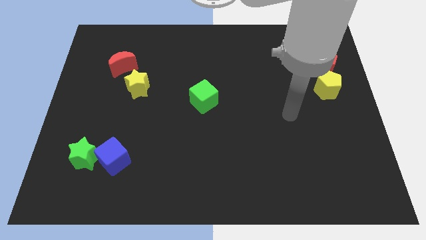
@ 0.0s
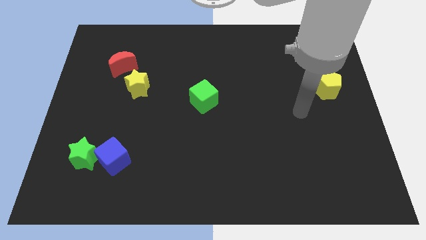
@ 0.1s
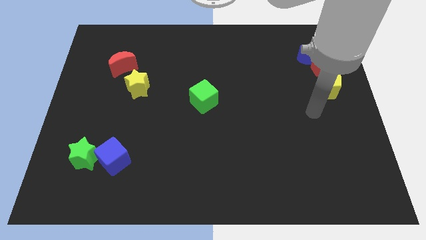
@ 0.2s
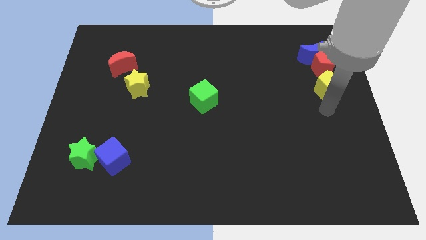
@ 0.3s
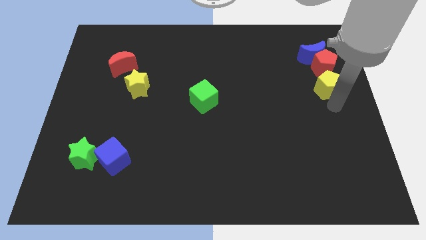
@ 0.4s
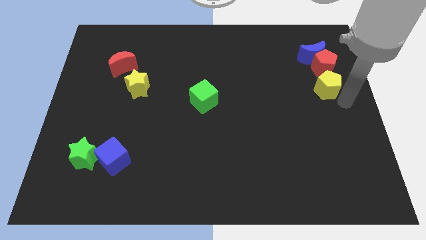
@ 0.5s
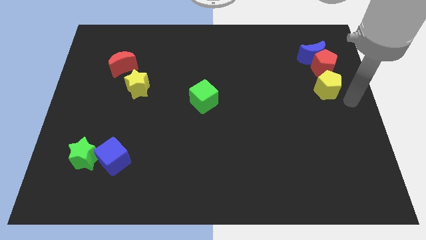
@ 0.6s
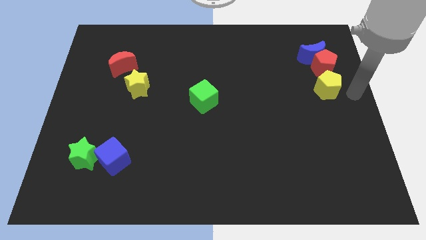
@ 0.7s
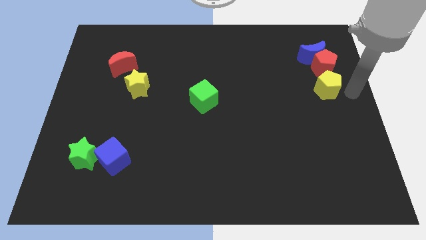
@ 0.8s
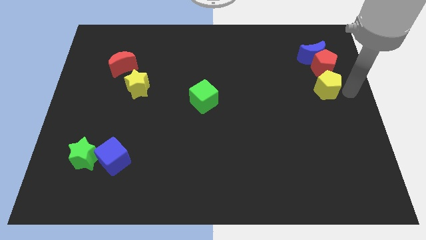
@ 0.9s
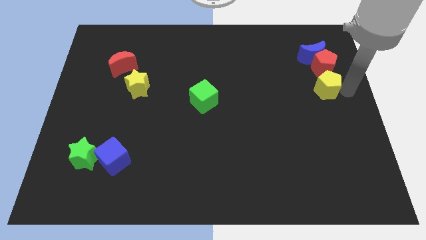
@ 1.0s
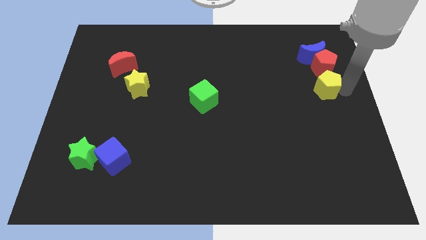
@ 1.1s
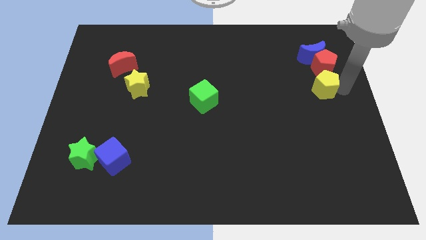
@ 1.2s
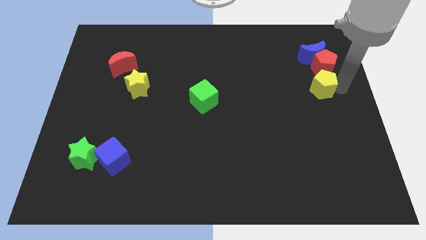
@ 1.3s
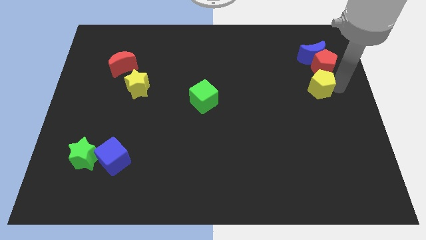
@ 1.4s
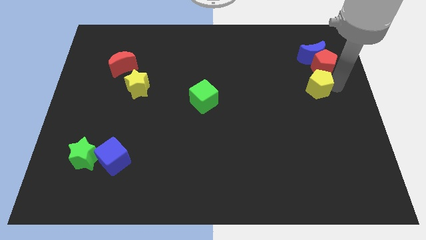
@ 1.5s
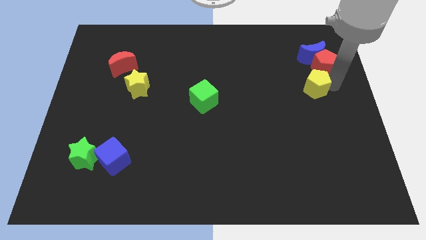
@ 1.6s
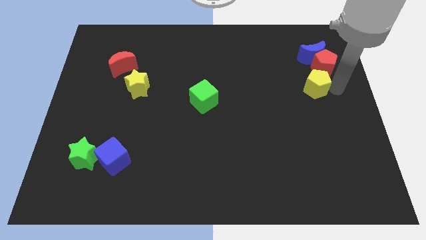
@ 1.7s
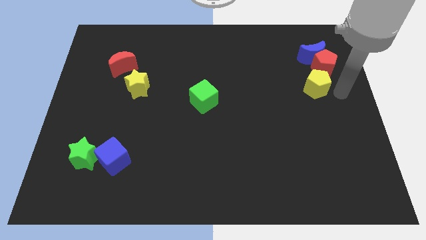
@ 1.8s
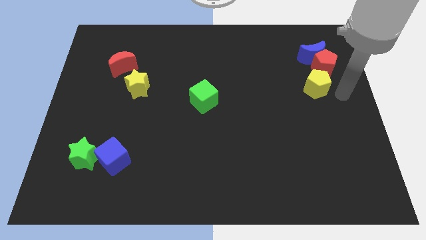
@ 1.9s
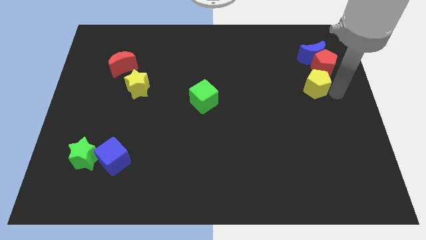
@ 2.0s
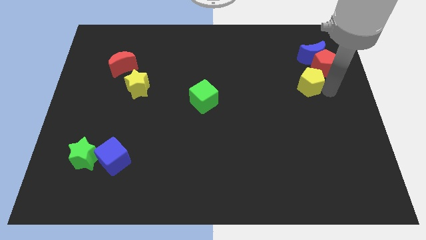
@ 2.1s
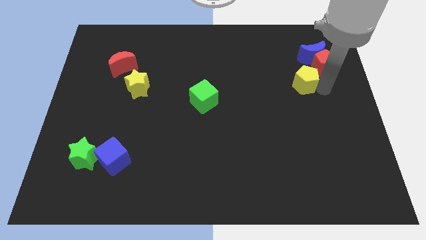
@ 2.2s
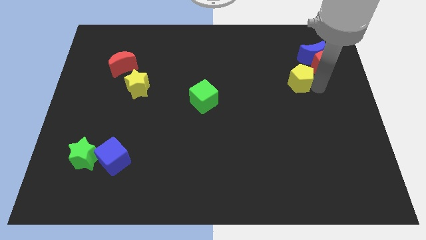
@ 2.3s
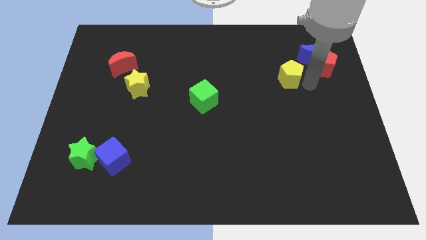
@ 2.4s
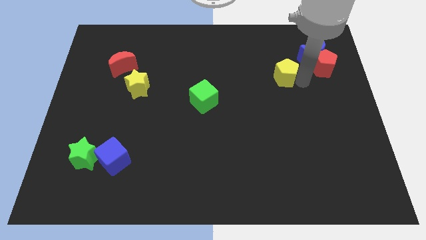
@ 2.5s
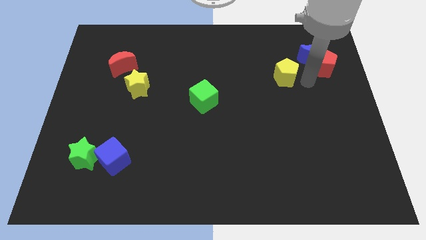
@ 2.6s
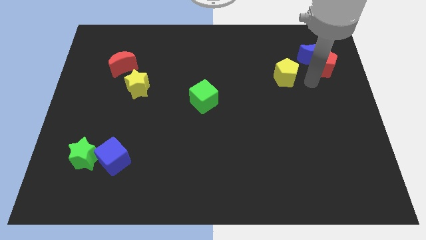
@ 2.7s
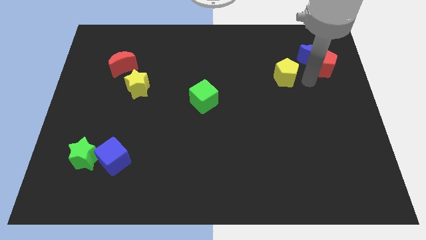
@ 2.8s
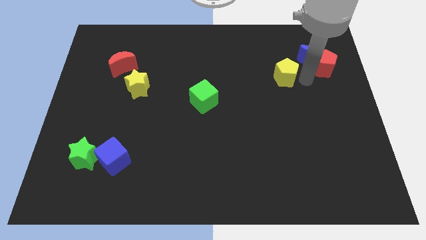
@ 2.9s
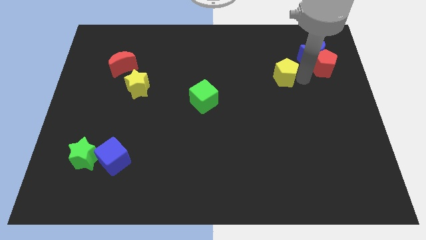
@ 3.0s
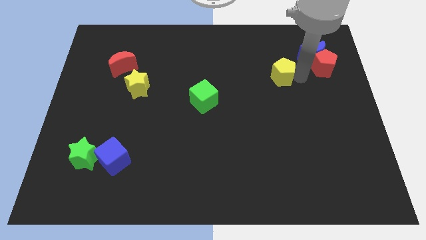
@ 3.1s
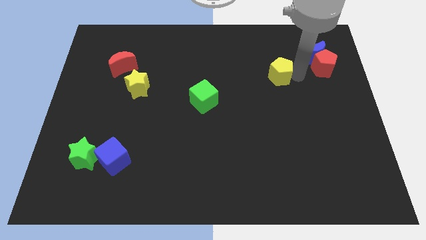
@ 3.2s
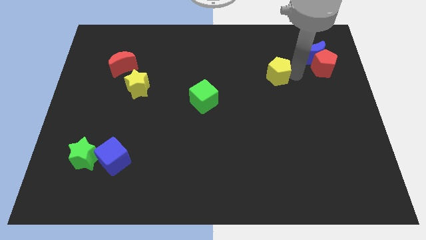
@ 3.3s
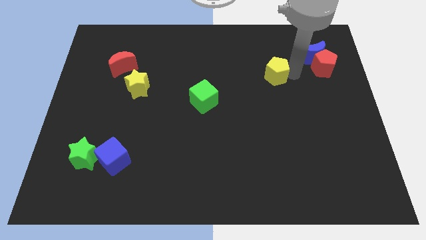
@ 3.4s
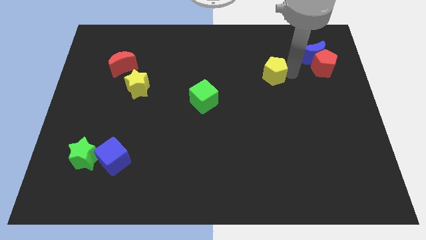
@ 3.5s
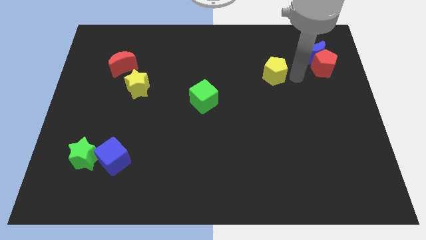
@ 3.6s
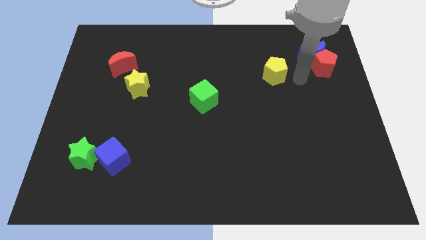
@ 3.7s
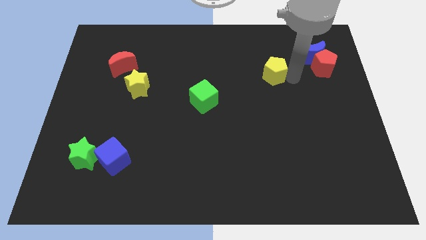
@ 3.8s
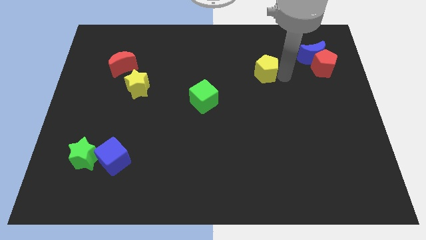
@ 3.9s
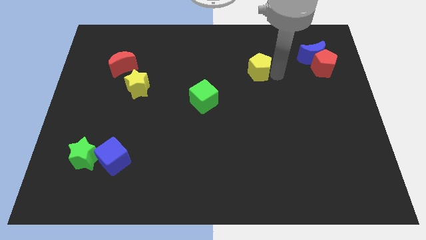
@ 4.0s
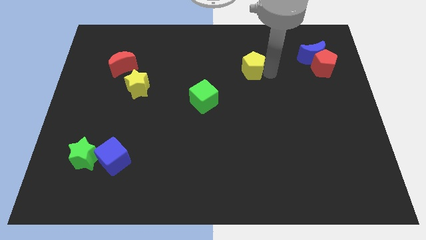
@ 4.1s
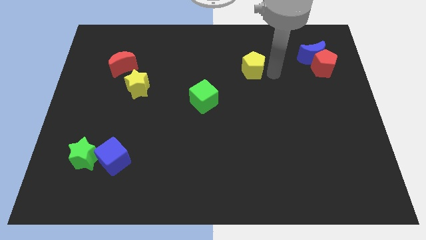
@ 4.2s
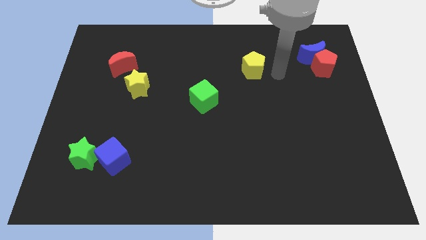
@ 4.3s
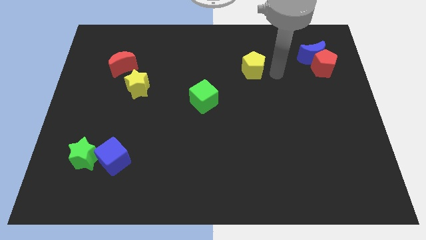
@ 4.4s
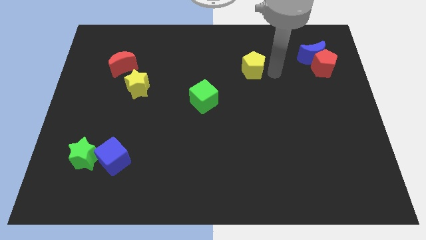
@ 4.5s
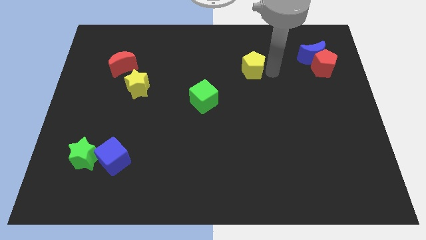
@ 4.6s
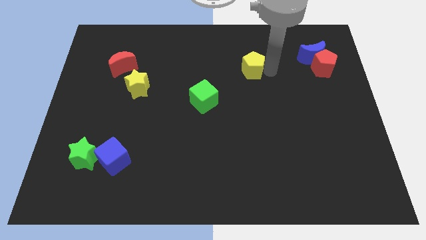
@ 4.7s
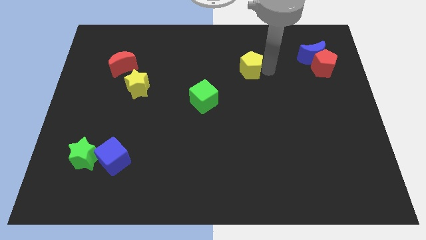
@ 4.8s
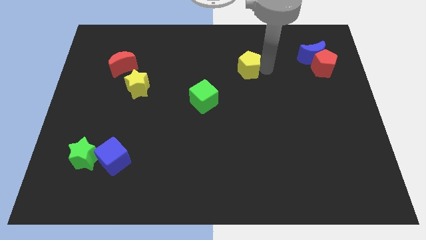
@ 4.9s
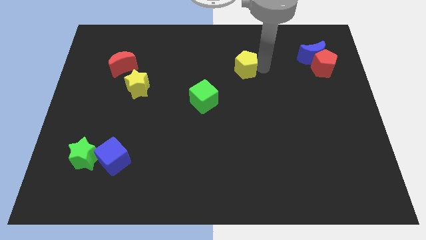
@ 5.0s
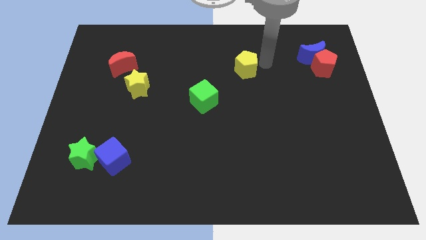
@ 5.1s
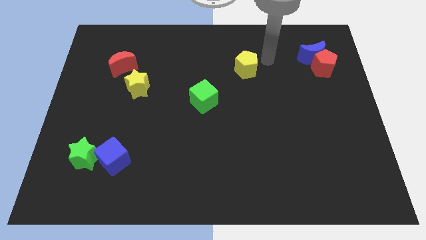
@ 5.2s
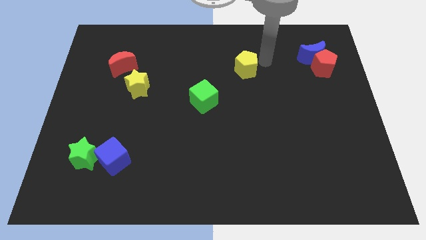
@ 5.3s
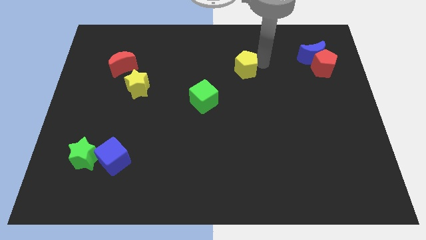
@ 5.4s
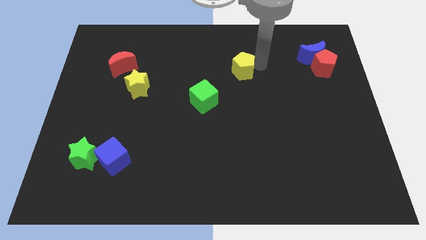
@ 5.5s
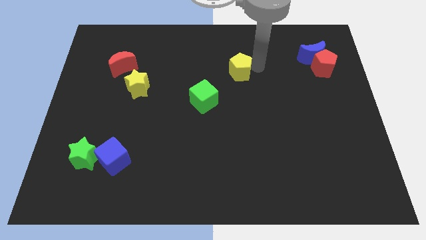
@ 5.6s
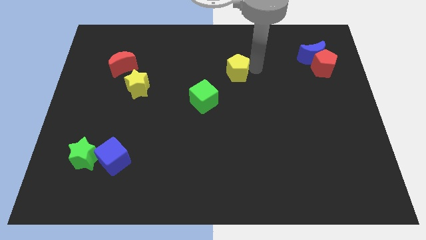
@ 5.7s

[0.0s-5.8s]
push the yellow pentagon to the left

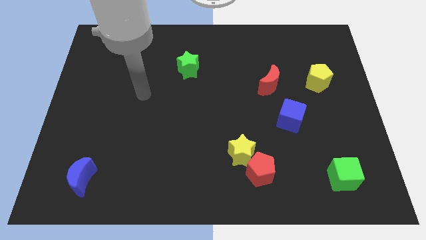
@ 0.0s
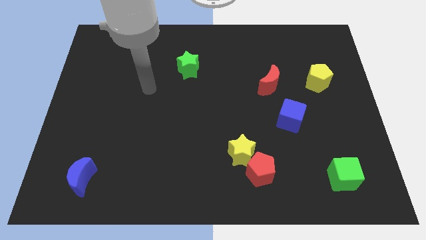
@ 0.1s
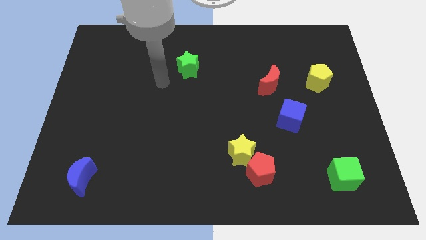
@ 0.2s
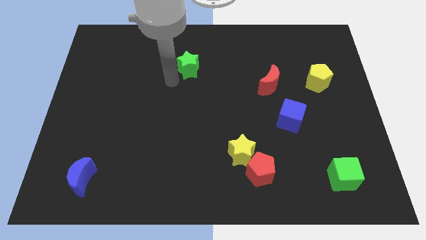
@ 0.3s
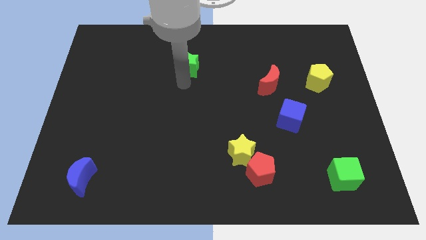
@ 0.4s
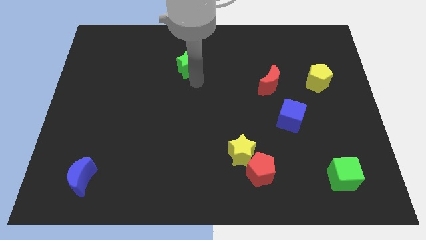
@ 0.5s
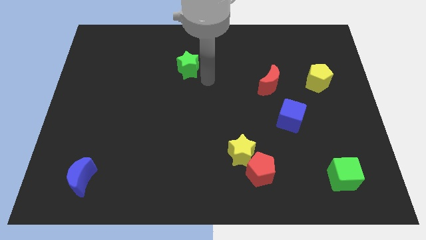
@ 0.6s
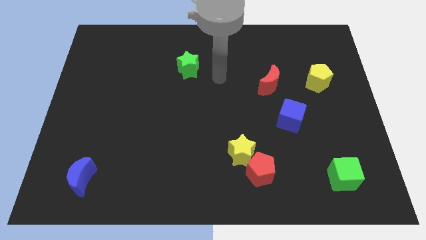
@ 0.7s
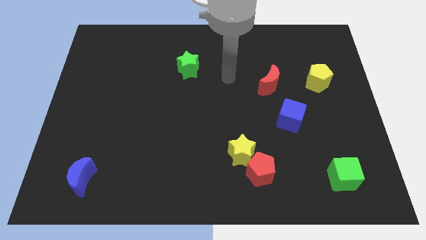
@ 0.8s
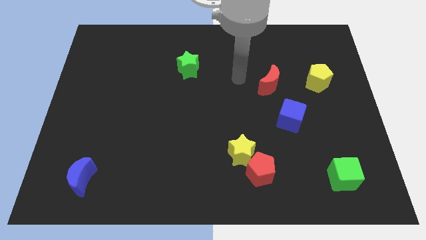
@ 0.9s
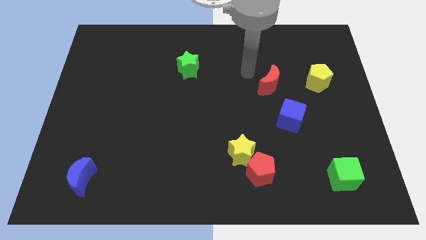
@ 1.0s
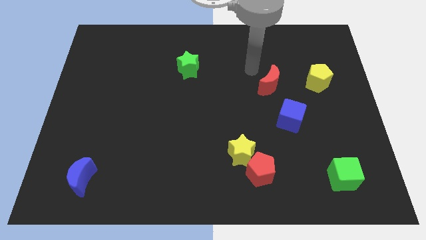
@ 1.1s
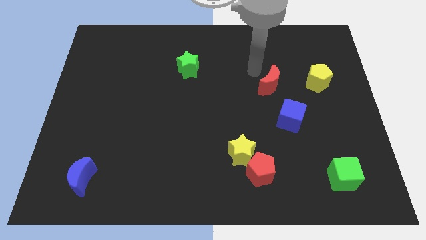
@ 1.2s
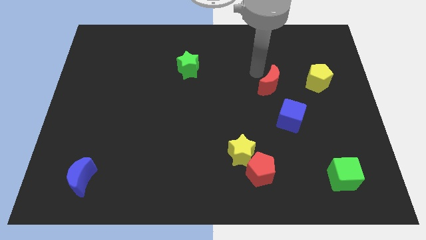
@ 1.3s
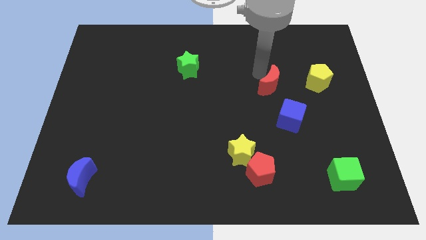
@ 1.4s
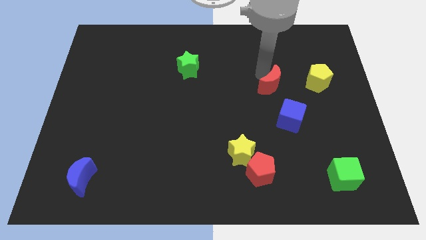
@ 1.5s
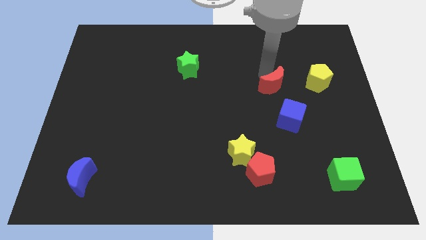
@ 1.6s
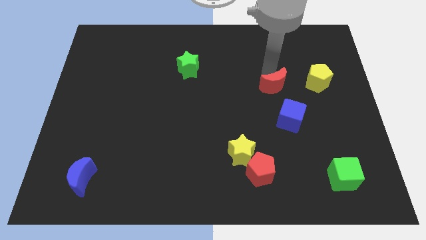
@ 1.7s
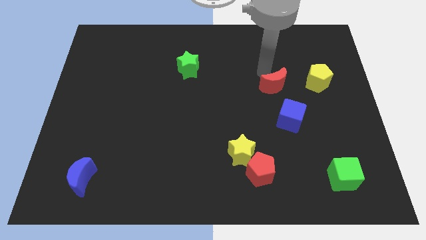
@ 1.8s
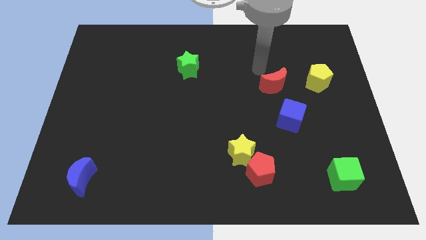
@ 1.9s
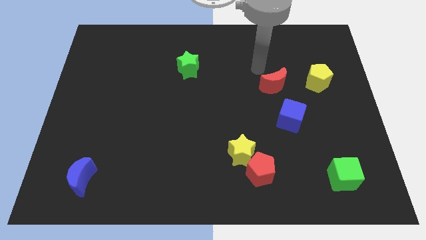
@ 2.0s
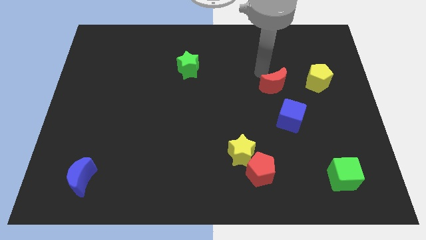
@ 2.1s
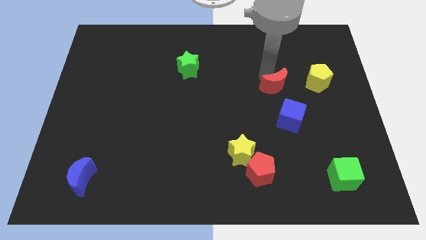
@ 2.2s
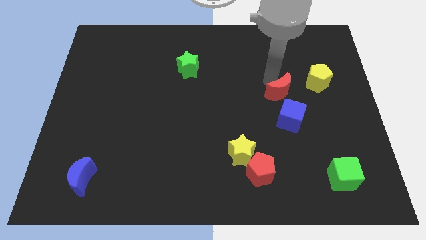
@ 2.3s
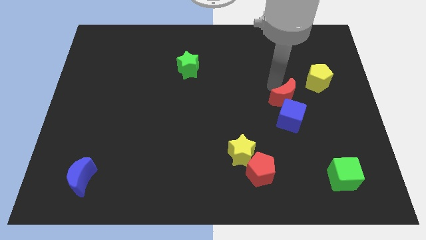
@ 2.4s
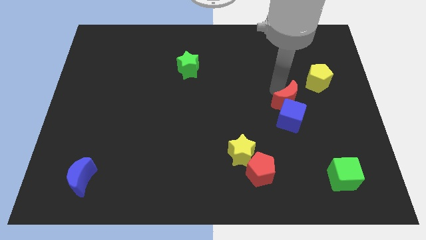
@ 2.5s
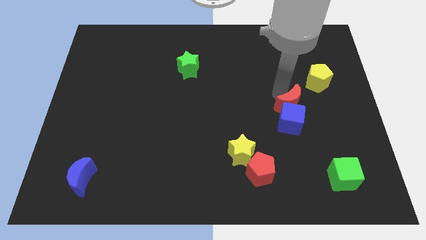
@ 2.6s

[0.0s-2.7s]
push the red moon diagonally downwards and right a little bit
